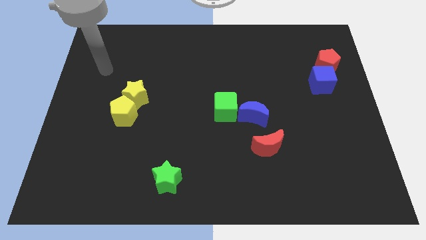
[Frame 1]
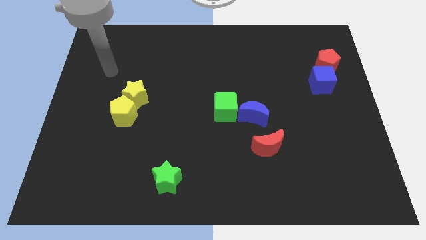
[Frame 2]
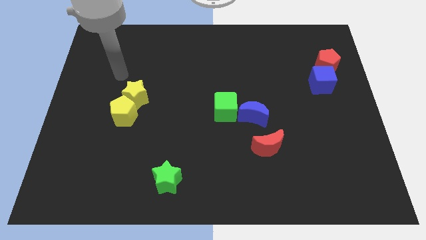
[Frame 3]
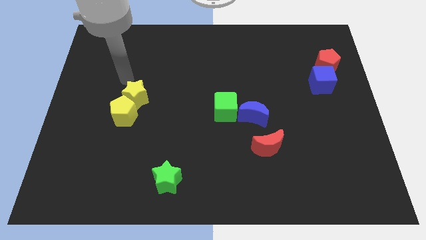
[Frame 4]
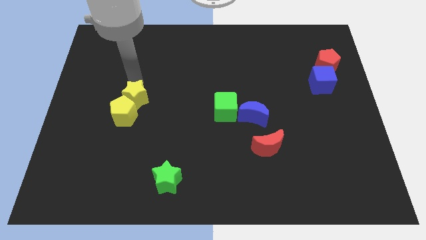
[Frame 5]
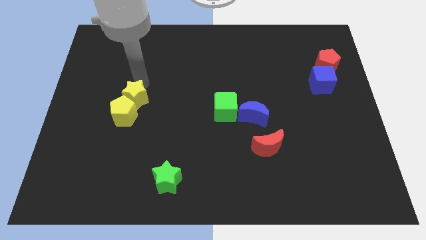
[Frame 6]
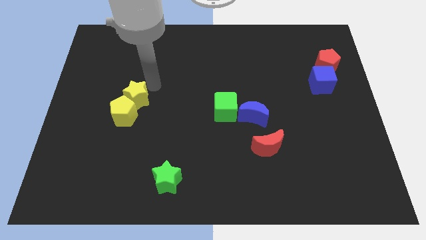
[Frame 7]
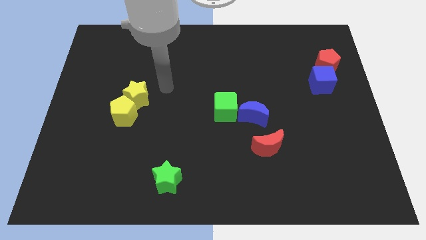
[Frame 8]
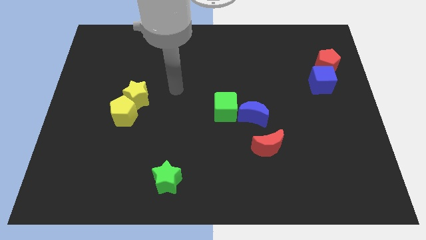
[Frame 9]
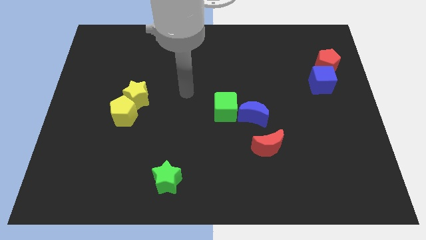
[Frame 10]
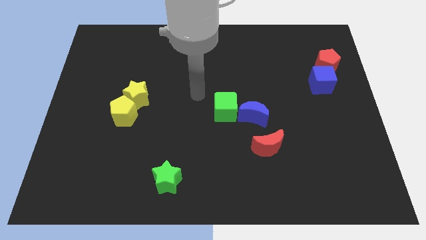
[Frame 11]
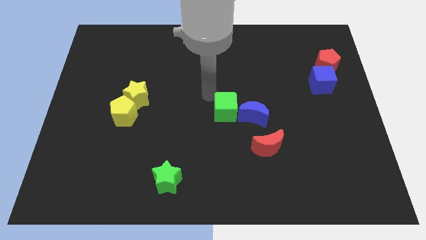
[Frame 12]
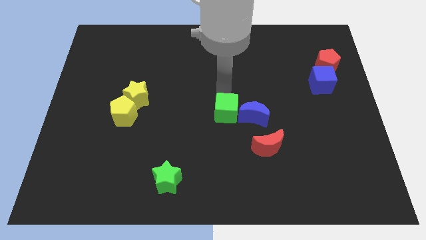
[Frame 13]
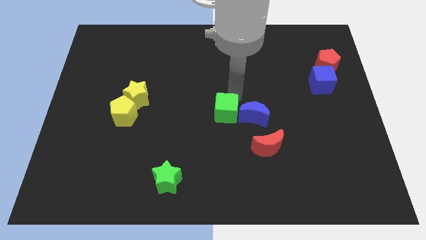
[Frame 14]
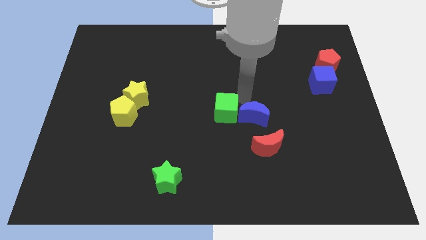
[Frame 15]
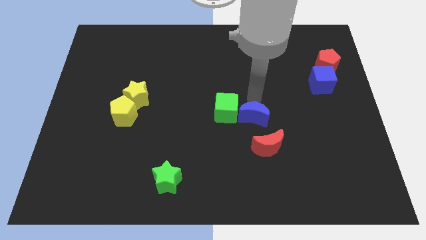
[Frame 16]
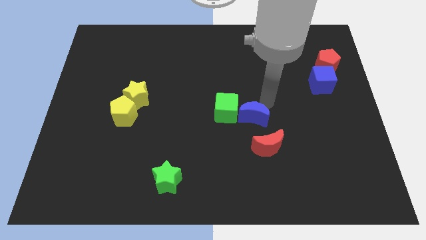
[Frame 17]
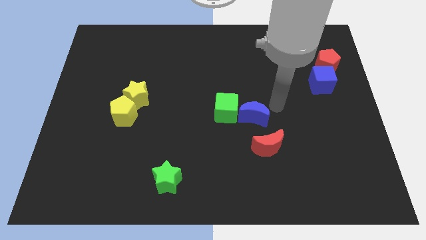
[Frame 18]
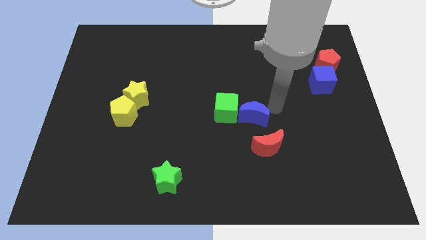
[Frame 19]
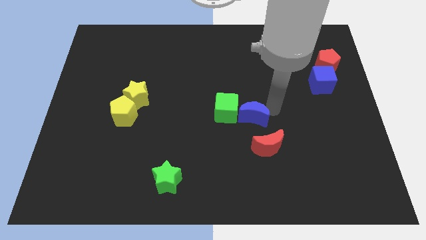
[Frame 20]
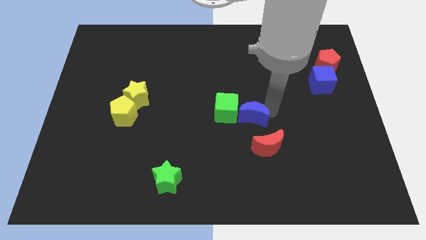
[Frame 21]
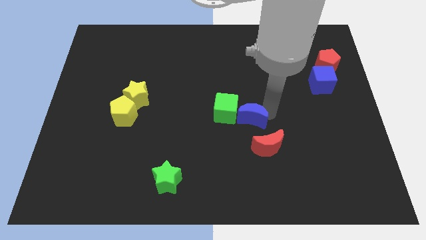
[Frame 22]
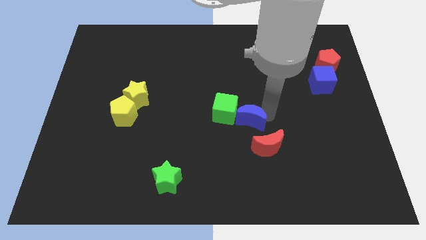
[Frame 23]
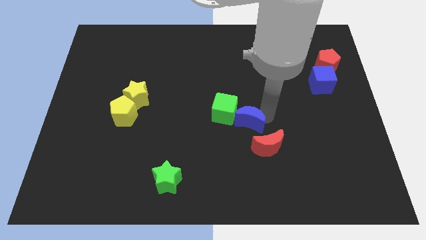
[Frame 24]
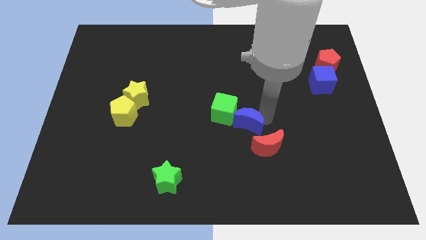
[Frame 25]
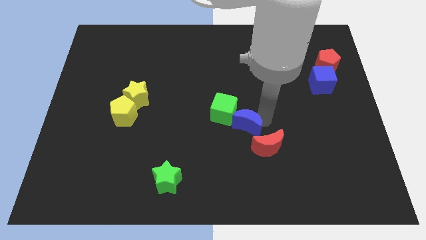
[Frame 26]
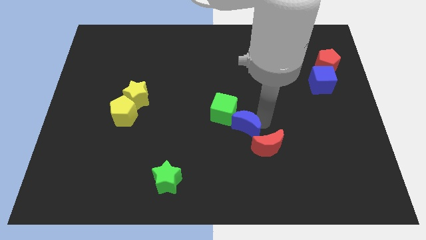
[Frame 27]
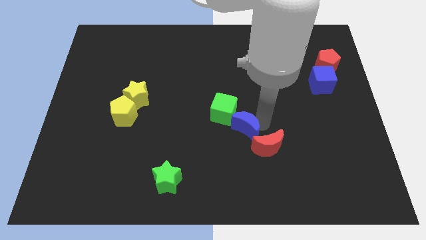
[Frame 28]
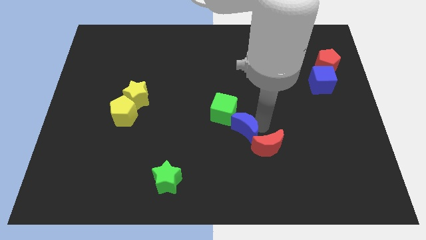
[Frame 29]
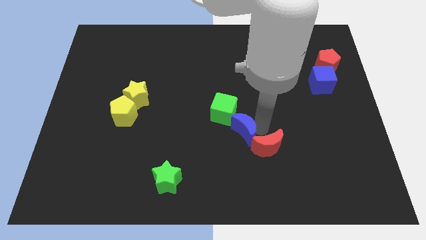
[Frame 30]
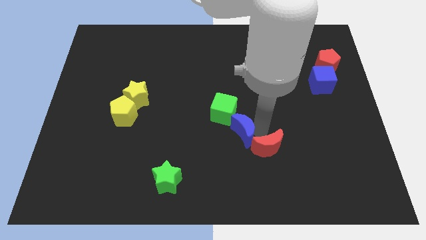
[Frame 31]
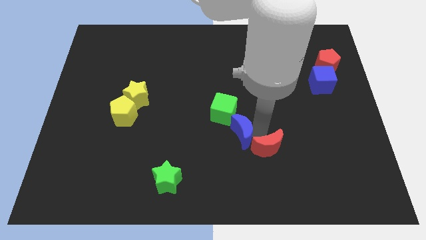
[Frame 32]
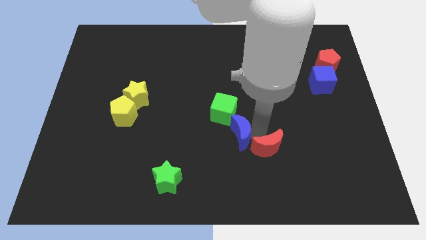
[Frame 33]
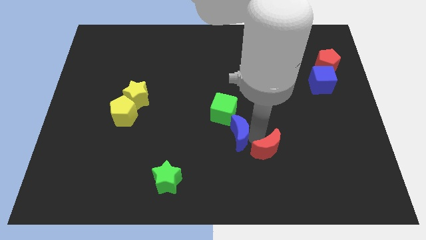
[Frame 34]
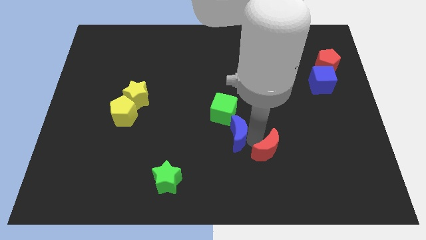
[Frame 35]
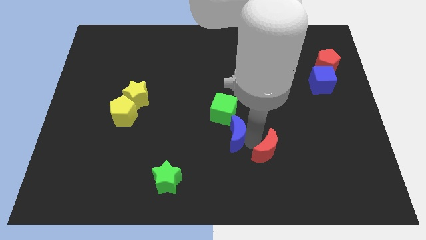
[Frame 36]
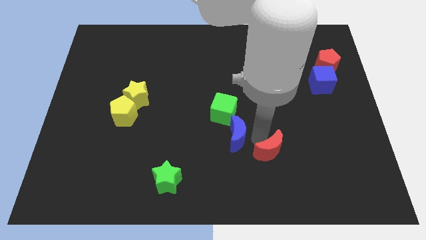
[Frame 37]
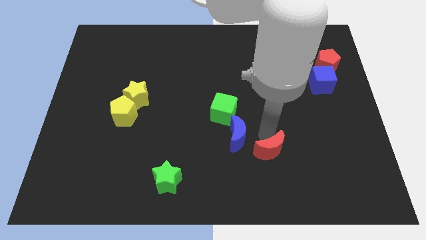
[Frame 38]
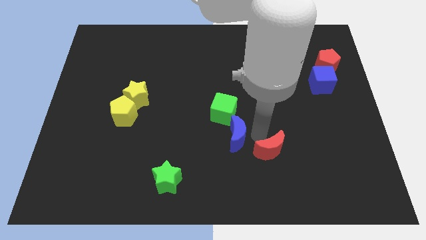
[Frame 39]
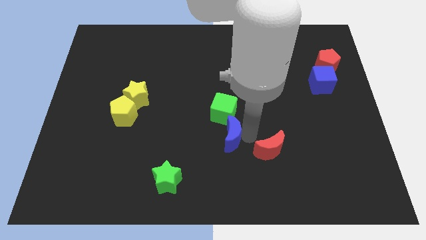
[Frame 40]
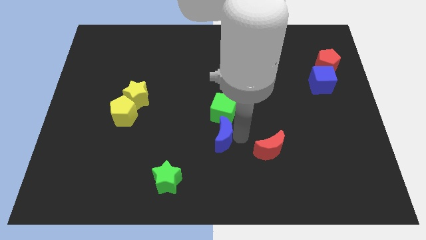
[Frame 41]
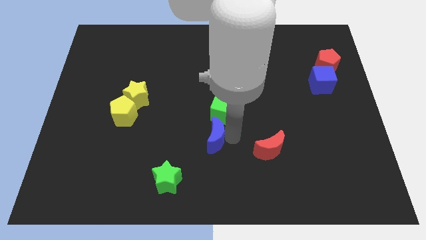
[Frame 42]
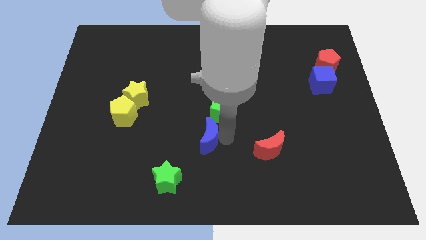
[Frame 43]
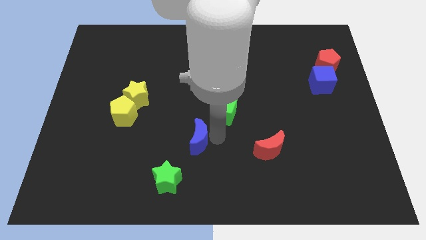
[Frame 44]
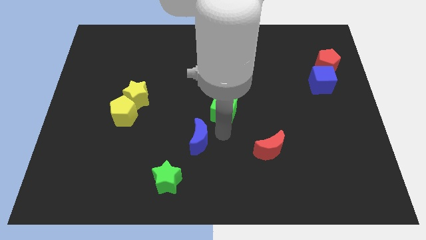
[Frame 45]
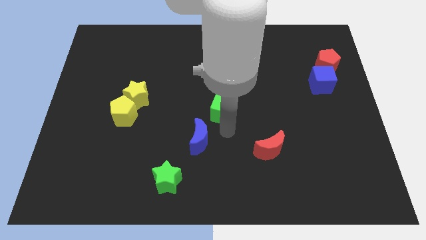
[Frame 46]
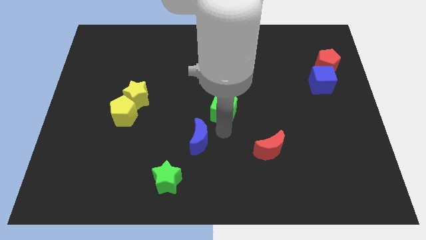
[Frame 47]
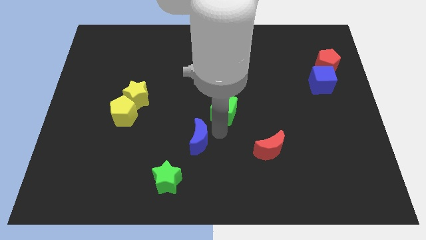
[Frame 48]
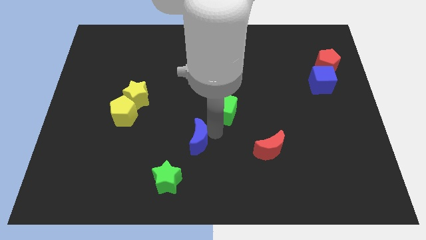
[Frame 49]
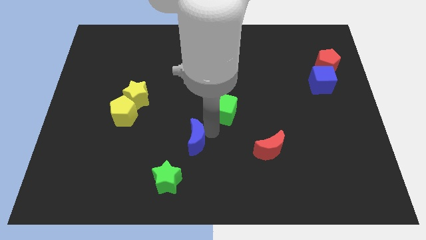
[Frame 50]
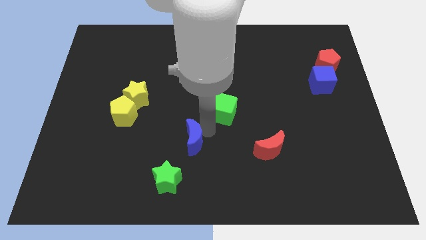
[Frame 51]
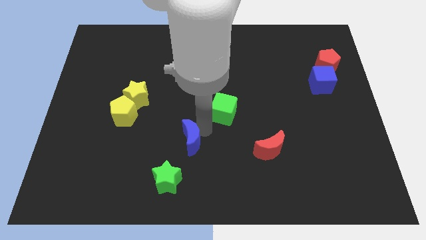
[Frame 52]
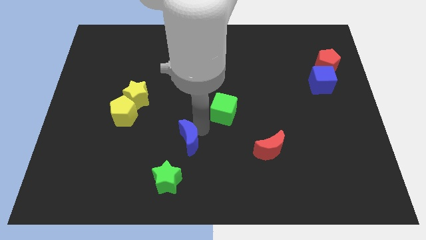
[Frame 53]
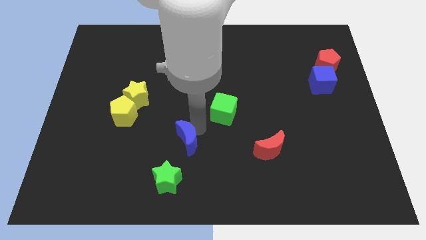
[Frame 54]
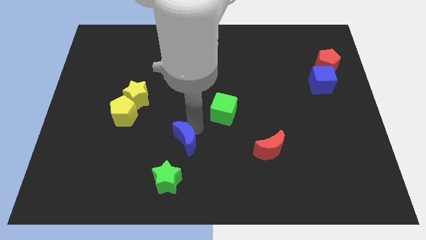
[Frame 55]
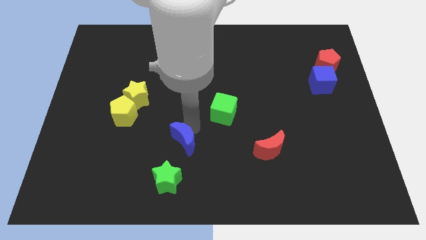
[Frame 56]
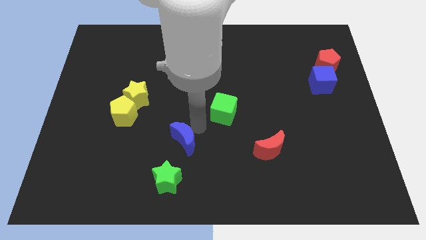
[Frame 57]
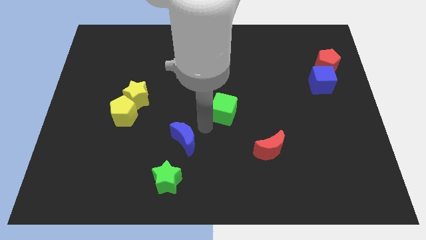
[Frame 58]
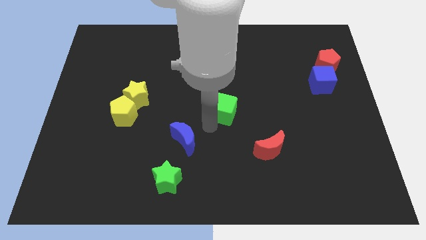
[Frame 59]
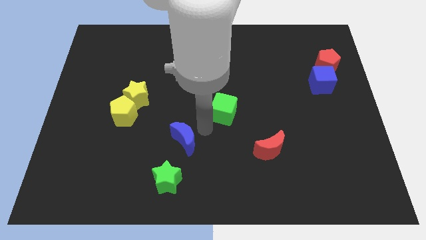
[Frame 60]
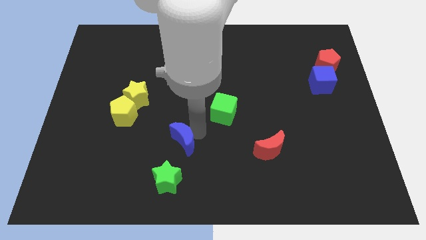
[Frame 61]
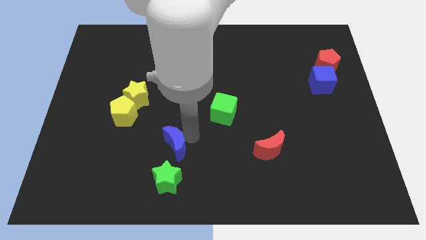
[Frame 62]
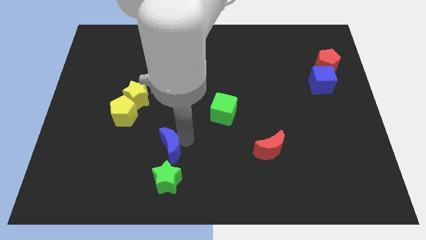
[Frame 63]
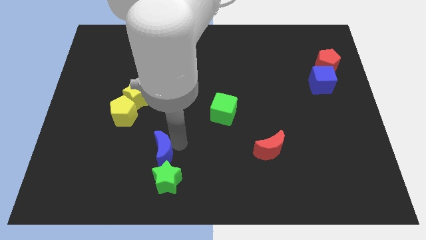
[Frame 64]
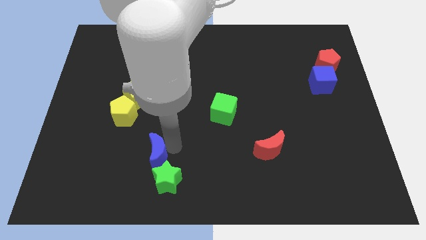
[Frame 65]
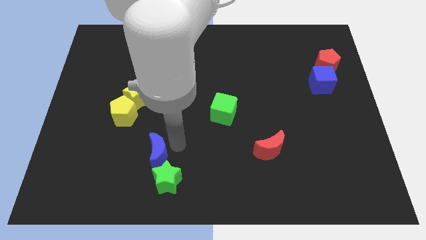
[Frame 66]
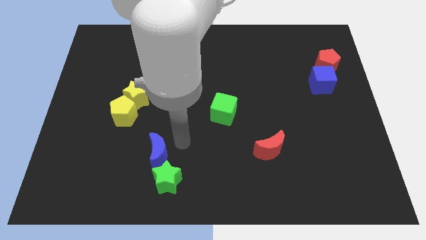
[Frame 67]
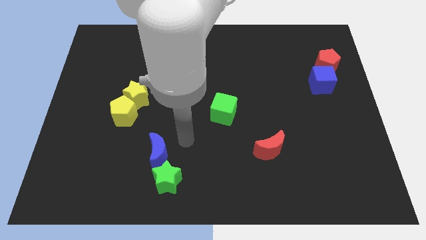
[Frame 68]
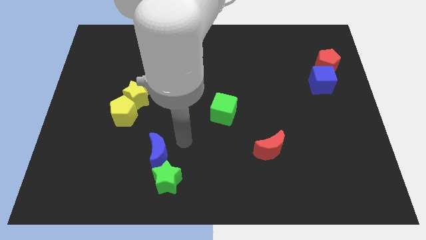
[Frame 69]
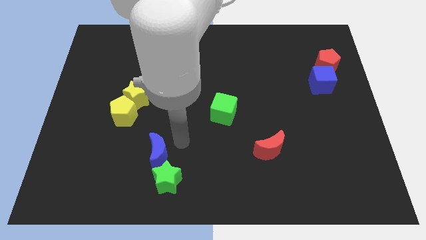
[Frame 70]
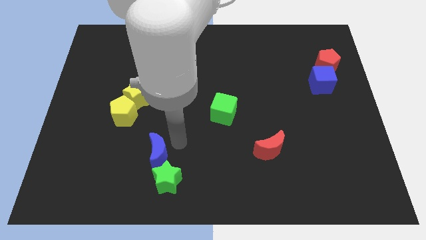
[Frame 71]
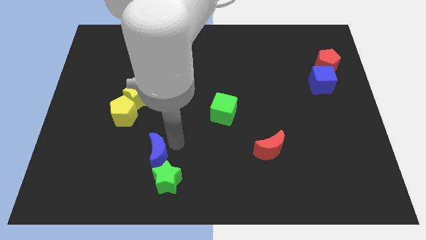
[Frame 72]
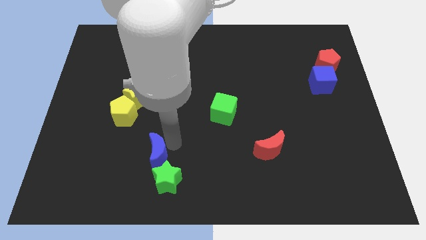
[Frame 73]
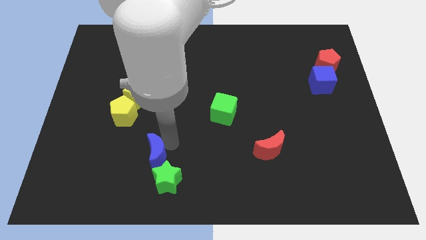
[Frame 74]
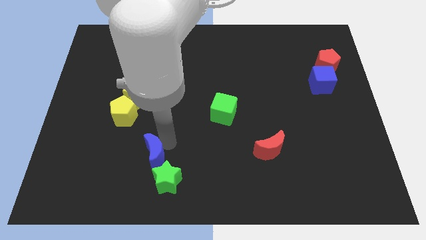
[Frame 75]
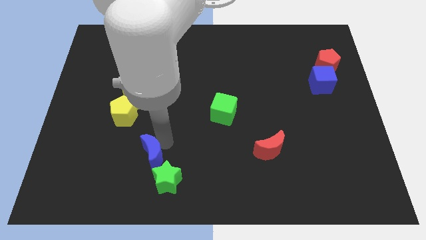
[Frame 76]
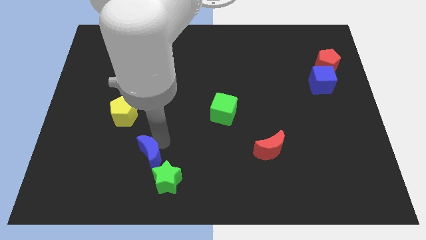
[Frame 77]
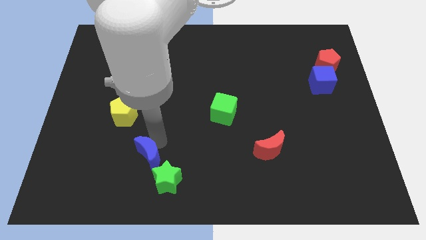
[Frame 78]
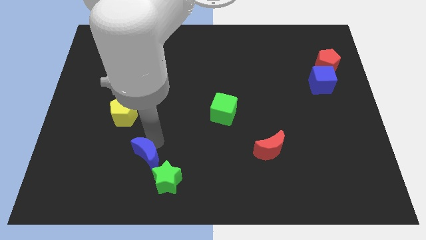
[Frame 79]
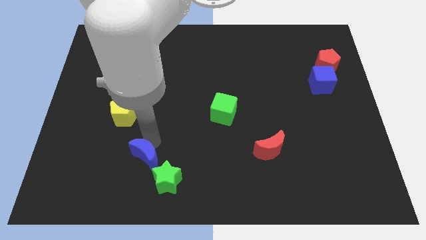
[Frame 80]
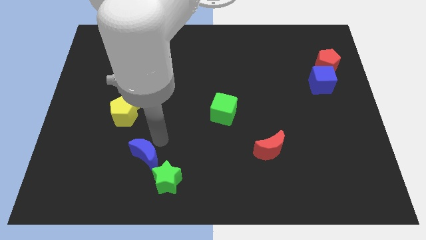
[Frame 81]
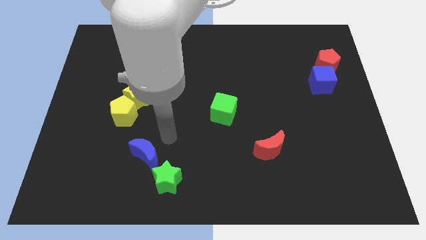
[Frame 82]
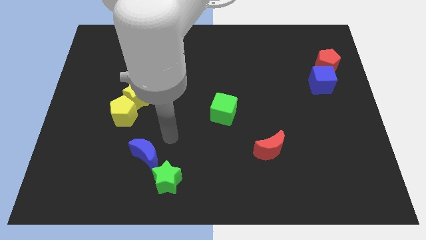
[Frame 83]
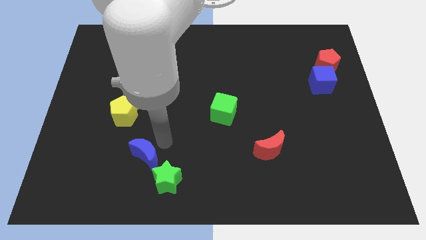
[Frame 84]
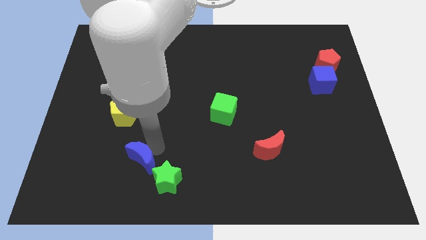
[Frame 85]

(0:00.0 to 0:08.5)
push the blue moon to the left side of the green star
